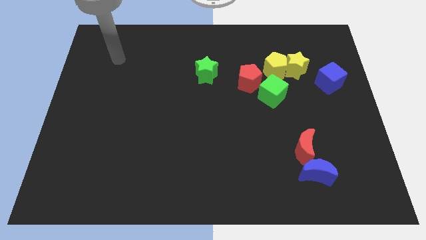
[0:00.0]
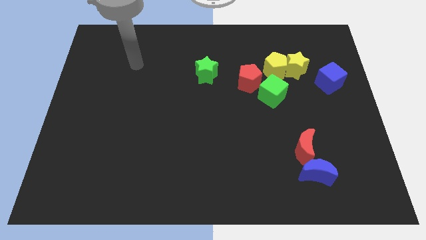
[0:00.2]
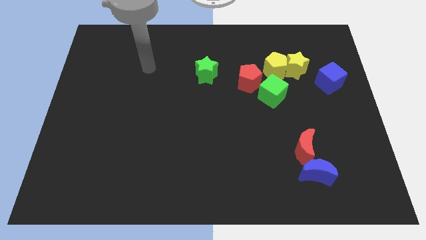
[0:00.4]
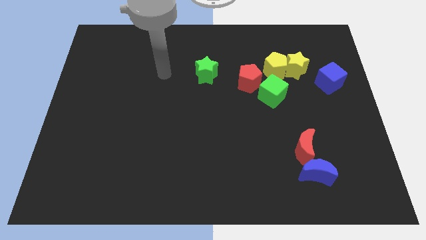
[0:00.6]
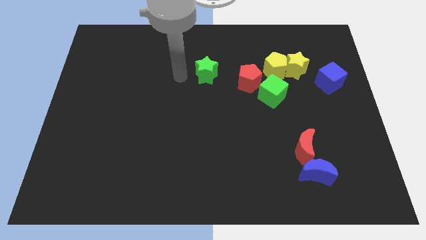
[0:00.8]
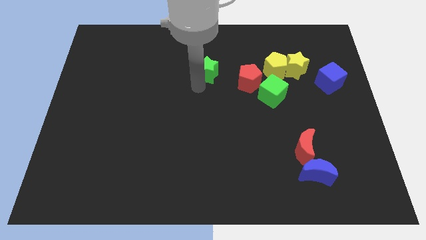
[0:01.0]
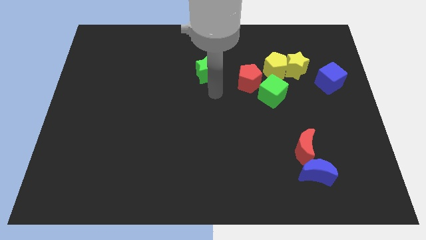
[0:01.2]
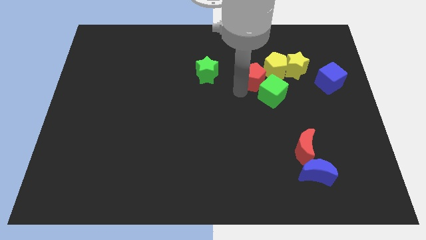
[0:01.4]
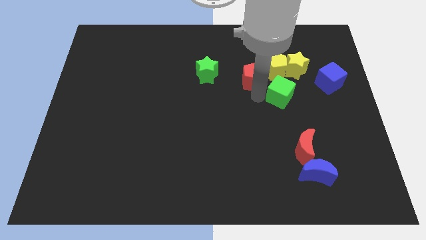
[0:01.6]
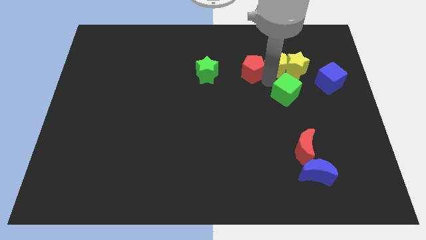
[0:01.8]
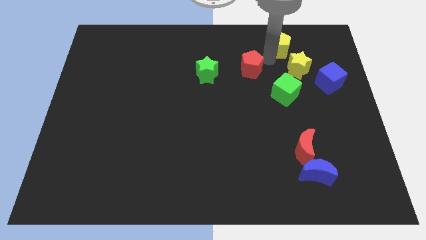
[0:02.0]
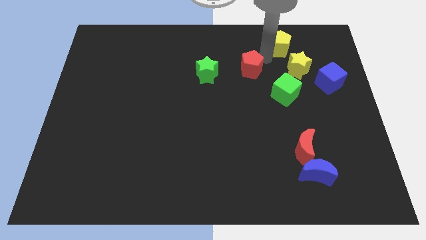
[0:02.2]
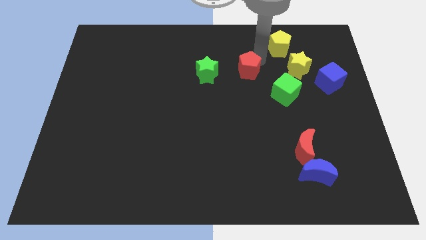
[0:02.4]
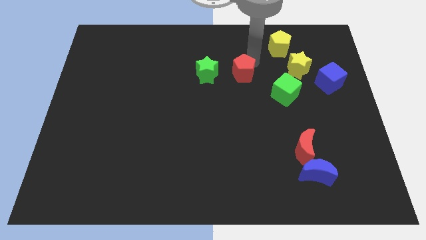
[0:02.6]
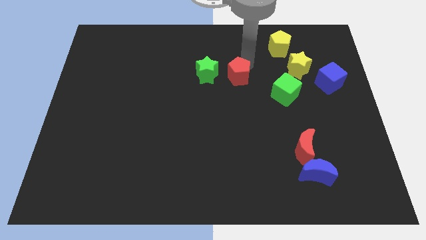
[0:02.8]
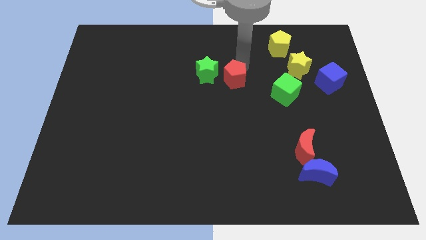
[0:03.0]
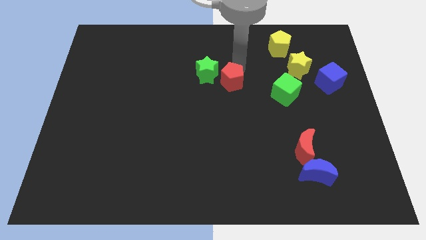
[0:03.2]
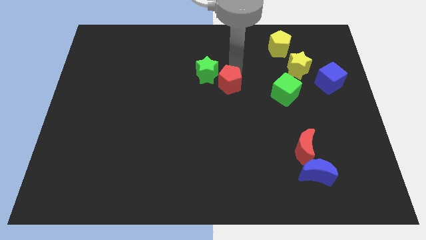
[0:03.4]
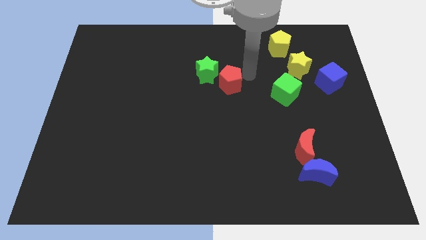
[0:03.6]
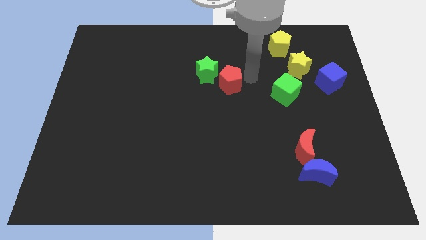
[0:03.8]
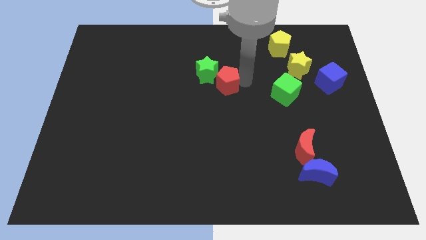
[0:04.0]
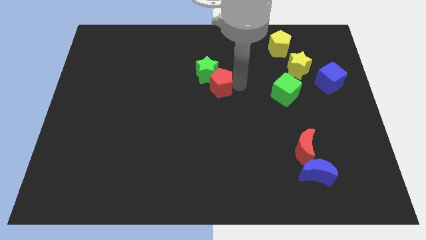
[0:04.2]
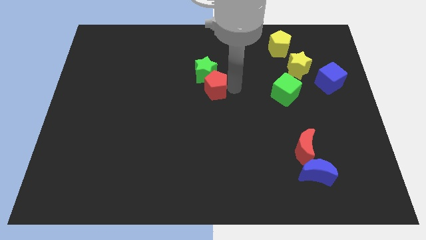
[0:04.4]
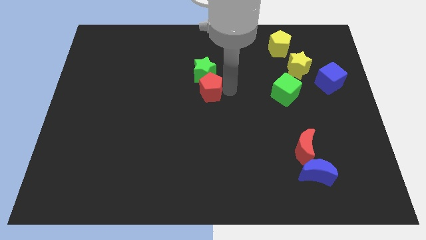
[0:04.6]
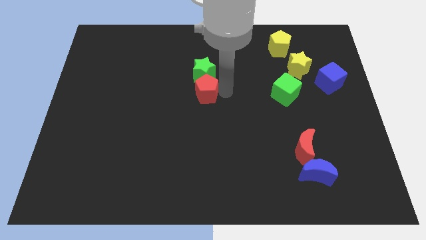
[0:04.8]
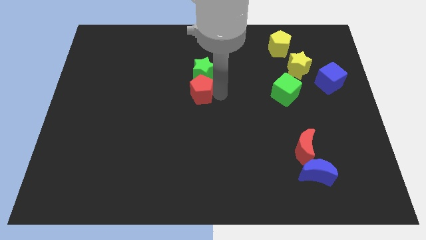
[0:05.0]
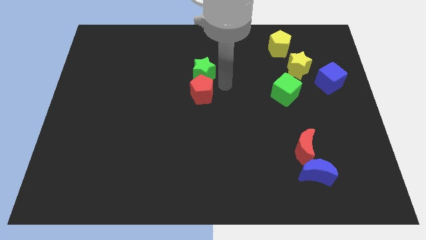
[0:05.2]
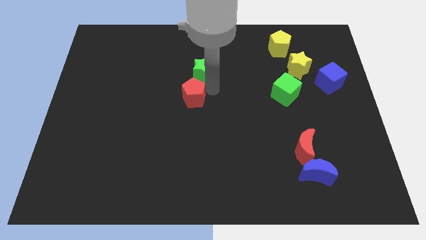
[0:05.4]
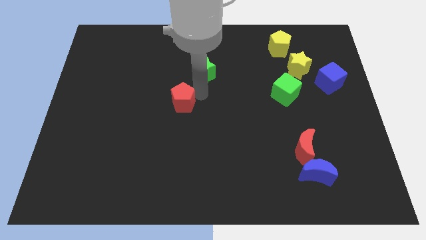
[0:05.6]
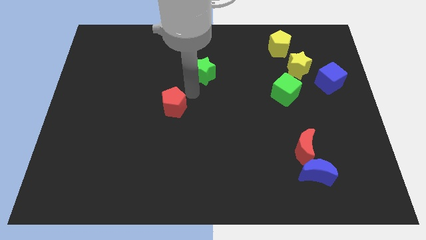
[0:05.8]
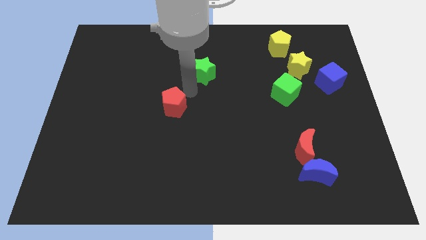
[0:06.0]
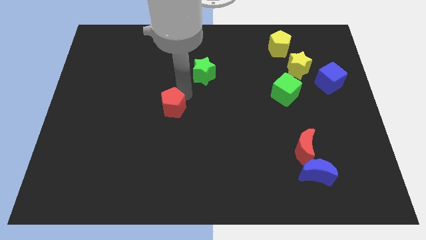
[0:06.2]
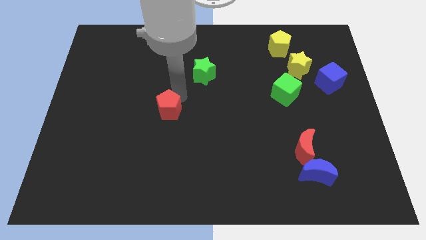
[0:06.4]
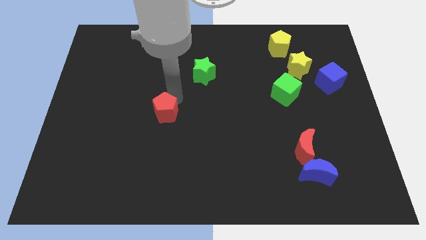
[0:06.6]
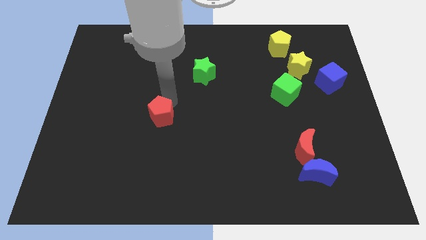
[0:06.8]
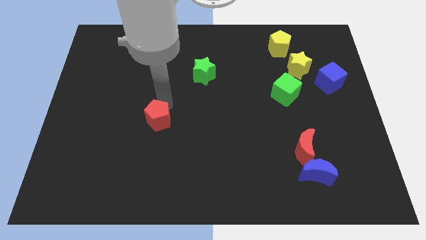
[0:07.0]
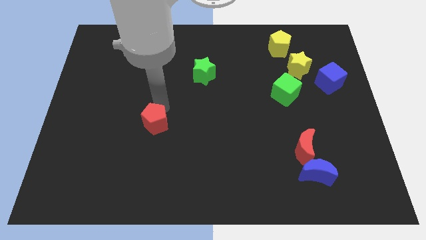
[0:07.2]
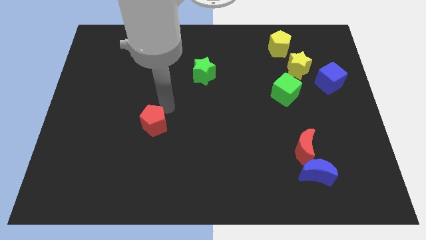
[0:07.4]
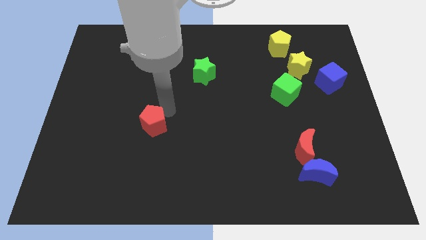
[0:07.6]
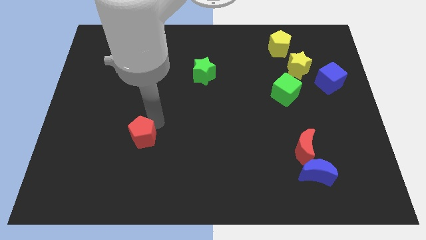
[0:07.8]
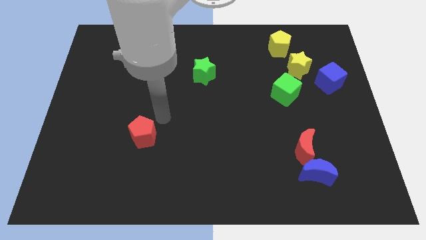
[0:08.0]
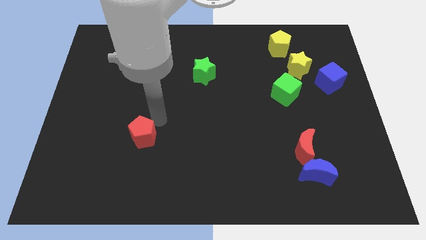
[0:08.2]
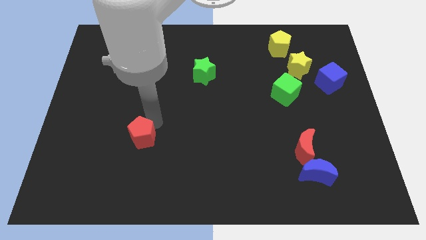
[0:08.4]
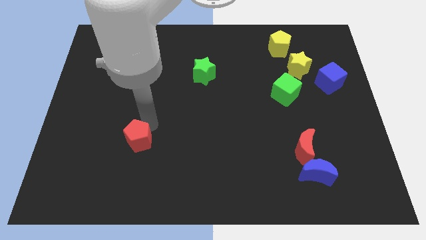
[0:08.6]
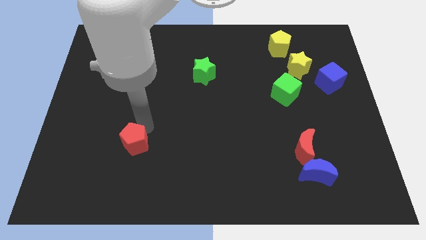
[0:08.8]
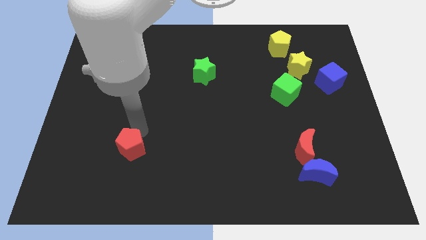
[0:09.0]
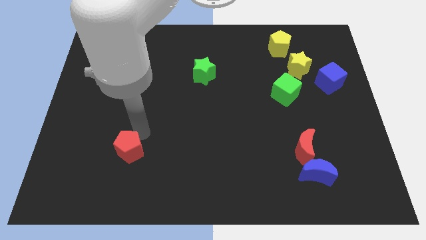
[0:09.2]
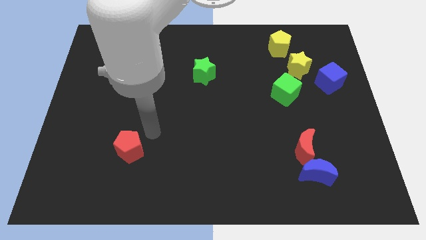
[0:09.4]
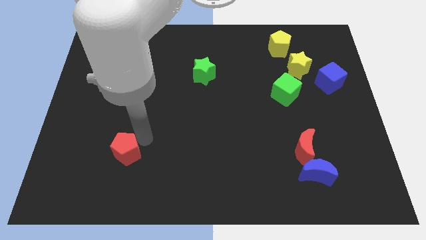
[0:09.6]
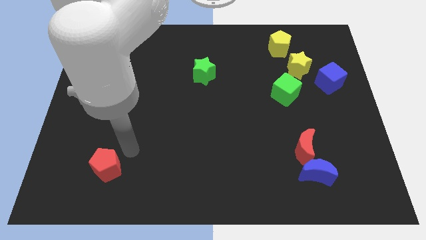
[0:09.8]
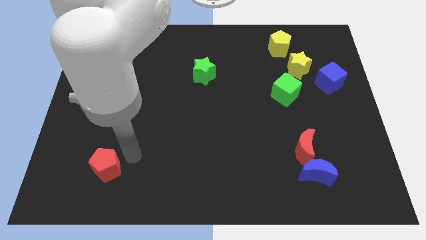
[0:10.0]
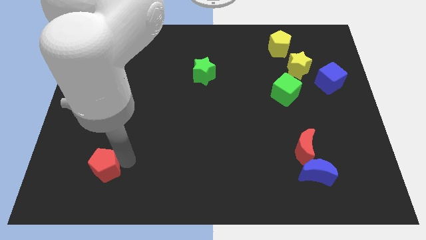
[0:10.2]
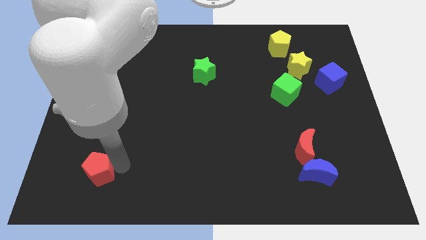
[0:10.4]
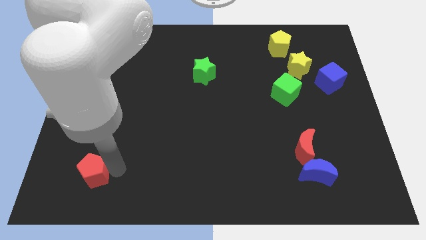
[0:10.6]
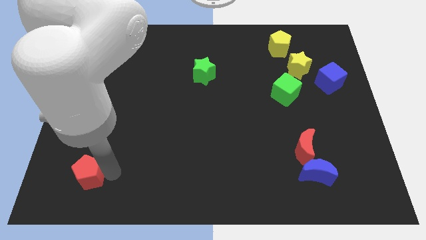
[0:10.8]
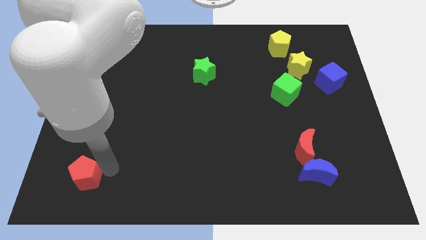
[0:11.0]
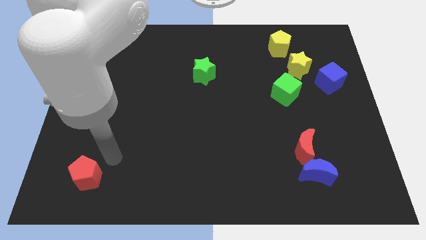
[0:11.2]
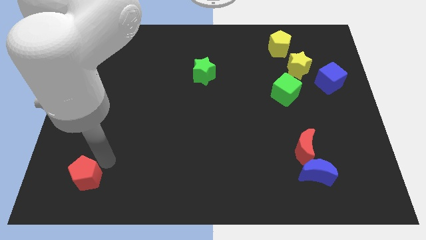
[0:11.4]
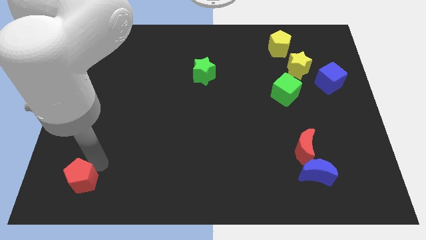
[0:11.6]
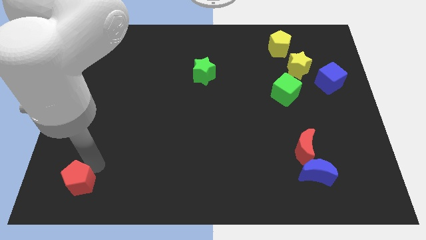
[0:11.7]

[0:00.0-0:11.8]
slide the red pentagon to the lower left corner

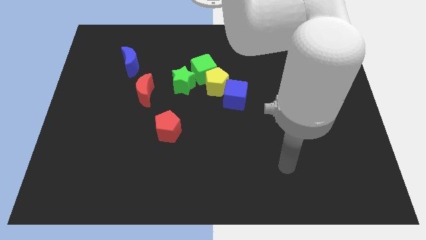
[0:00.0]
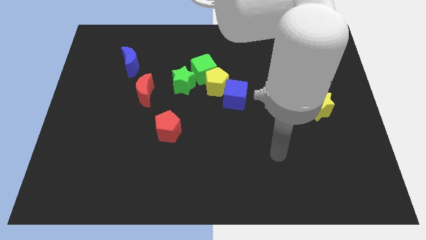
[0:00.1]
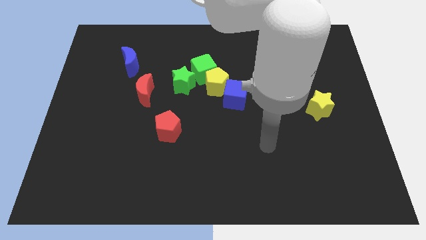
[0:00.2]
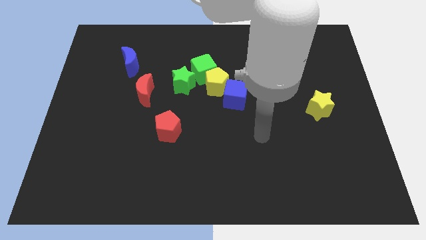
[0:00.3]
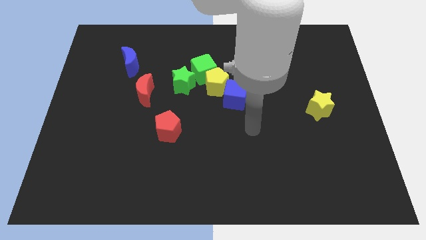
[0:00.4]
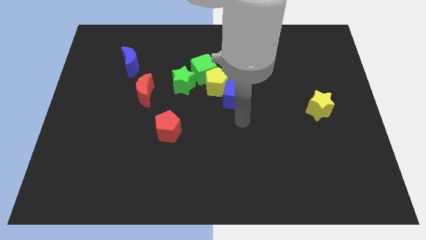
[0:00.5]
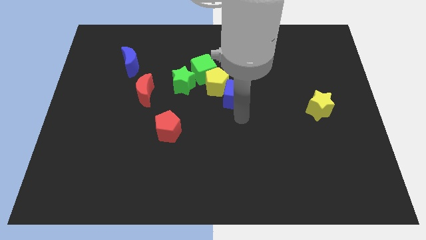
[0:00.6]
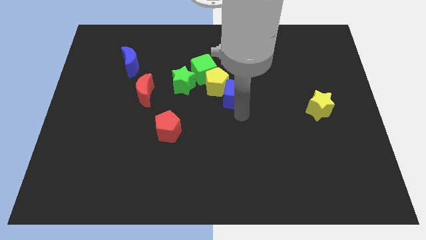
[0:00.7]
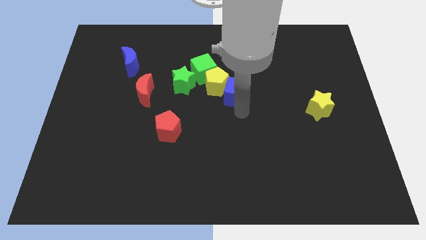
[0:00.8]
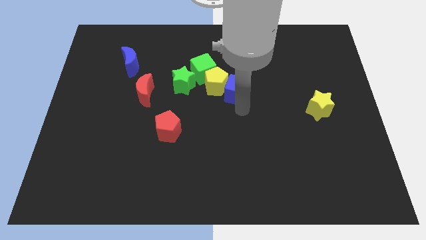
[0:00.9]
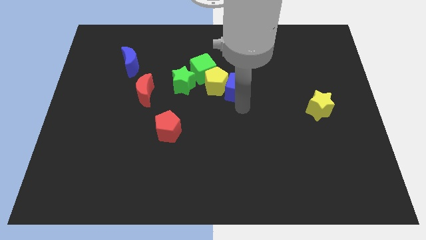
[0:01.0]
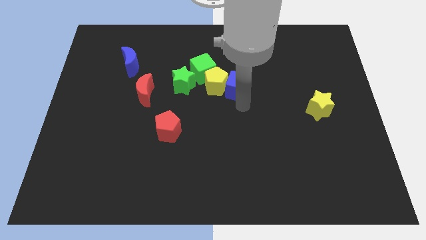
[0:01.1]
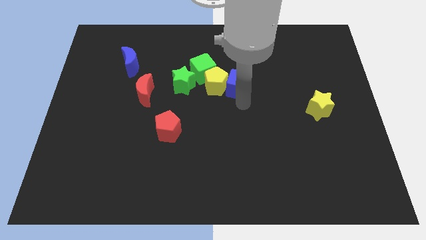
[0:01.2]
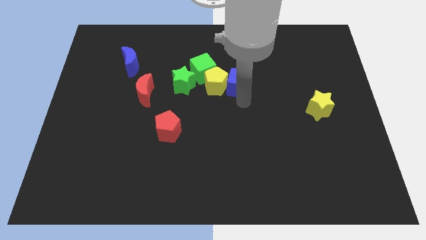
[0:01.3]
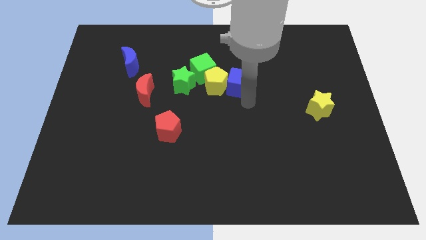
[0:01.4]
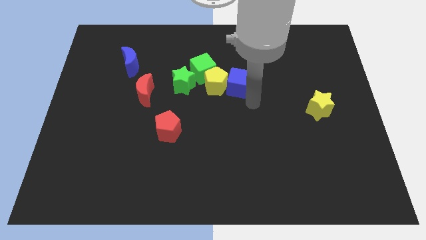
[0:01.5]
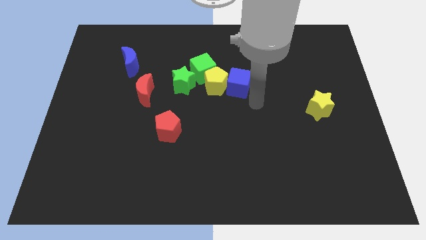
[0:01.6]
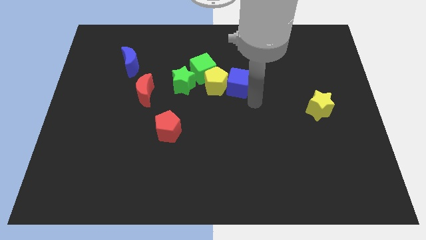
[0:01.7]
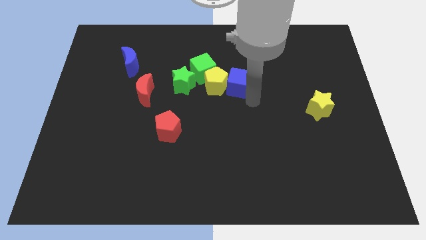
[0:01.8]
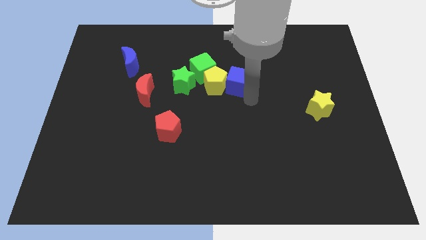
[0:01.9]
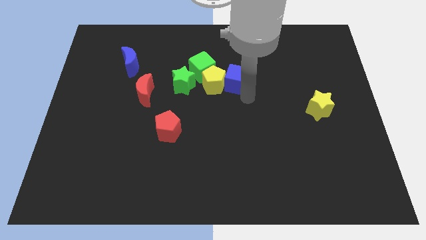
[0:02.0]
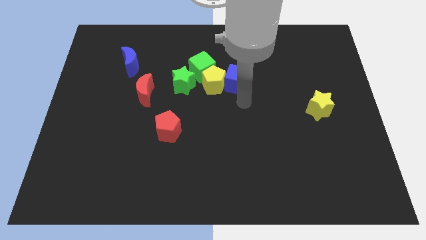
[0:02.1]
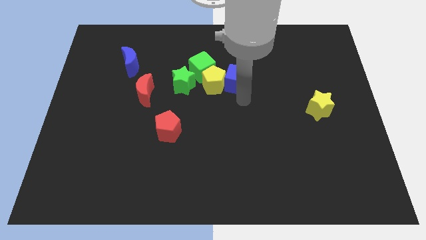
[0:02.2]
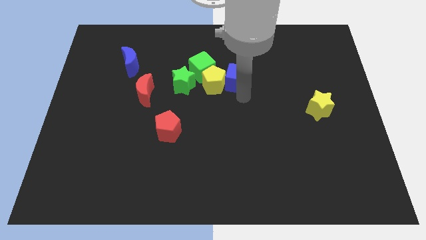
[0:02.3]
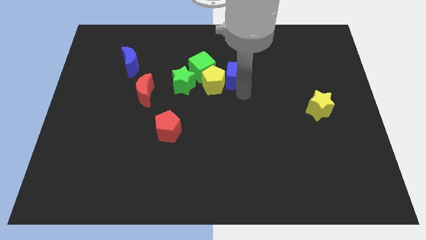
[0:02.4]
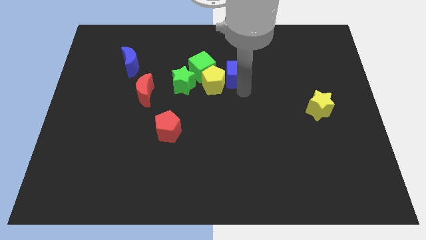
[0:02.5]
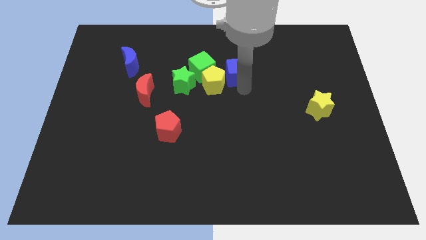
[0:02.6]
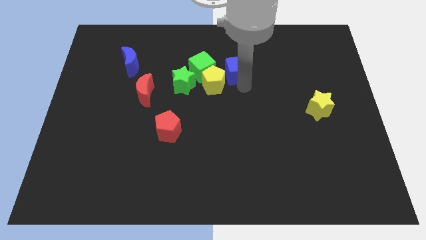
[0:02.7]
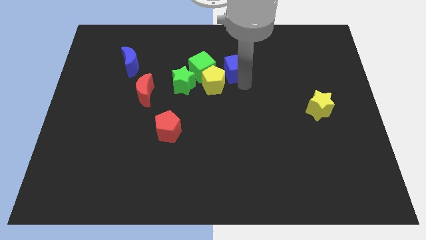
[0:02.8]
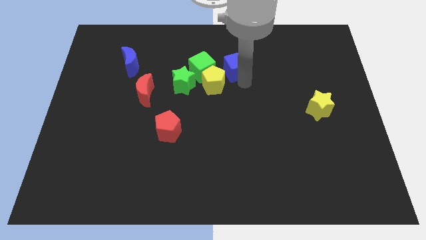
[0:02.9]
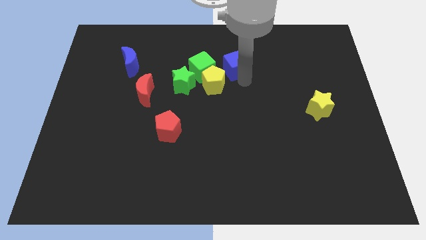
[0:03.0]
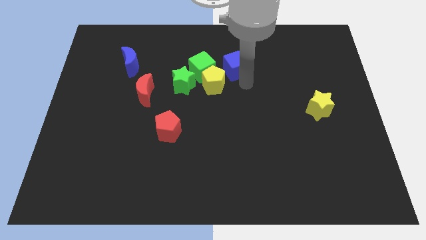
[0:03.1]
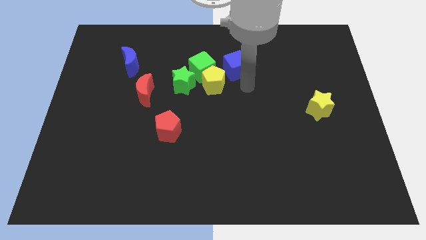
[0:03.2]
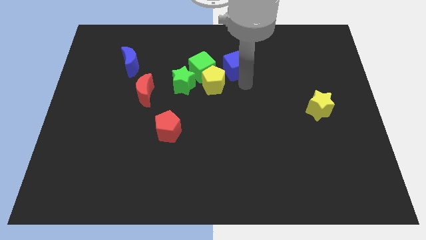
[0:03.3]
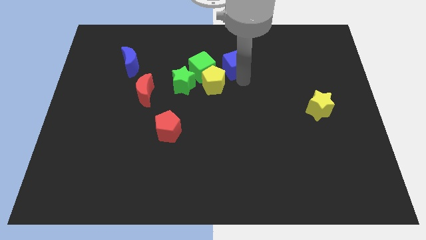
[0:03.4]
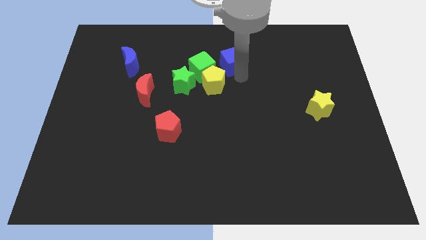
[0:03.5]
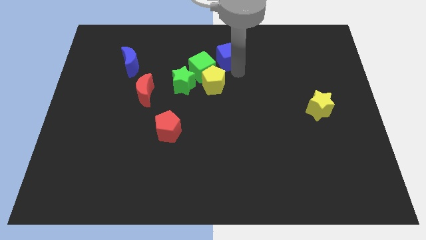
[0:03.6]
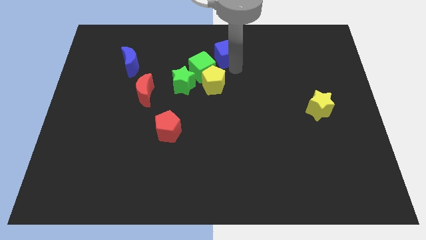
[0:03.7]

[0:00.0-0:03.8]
slide the blue cube to the towards your base
